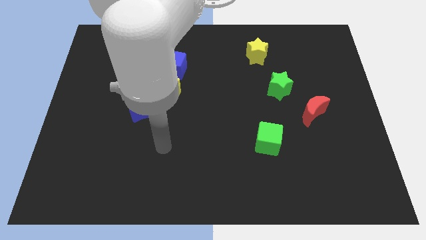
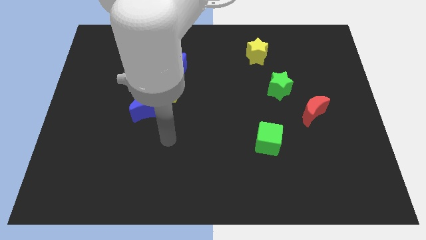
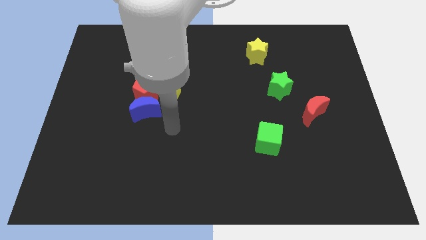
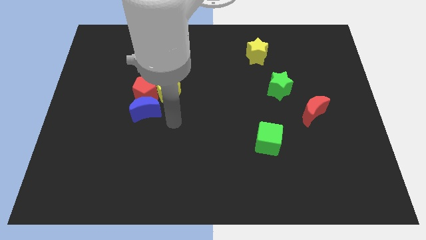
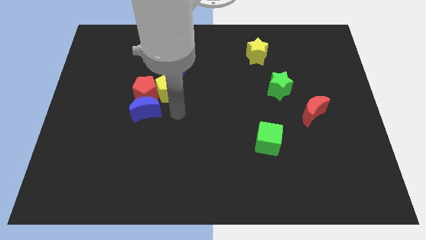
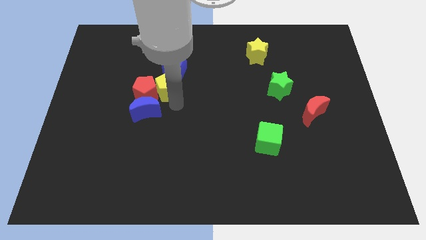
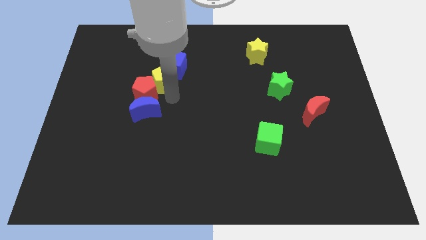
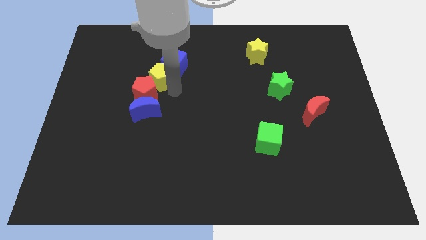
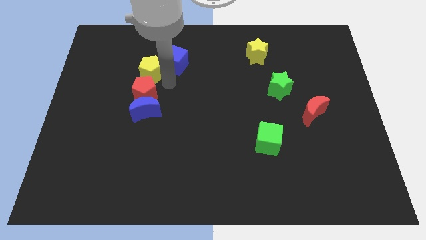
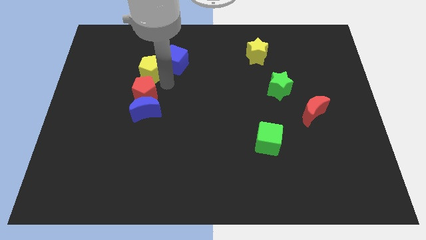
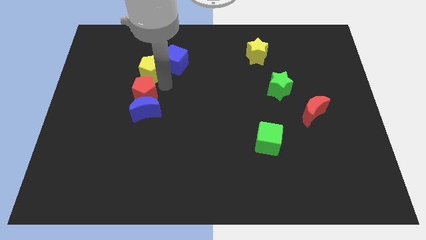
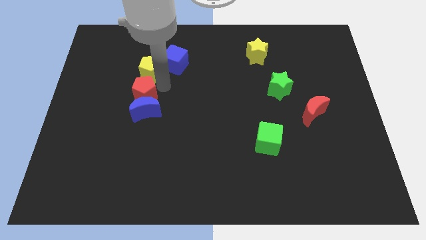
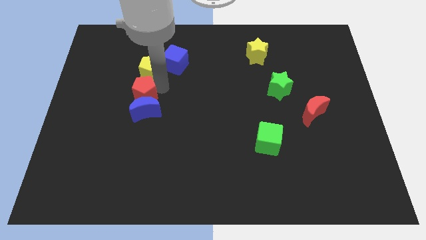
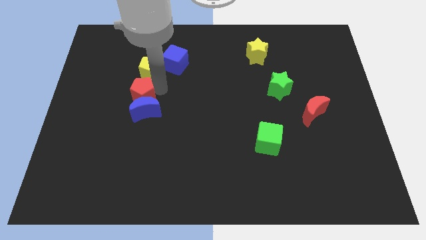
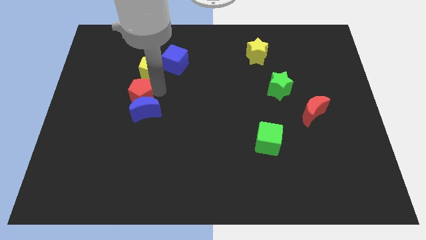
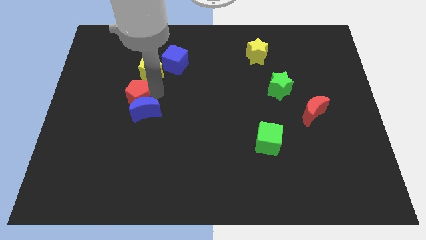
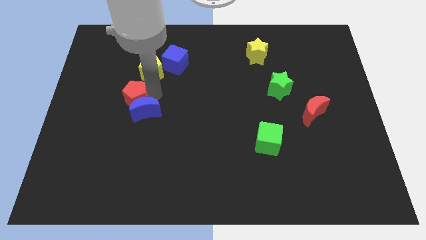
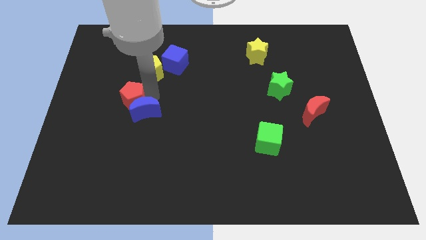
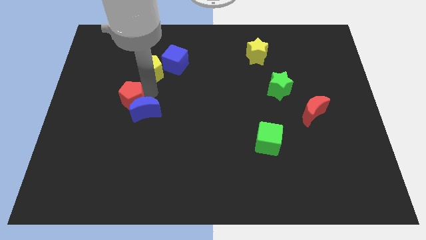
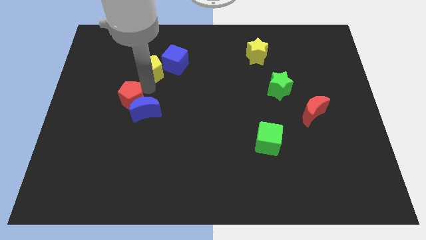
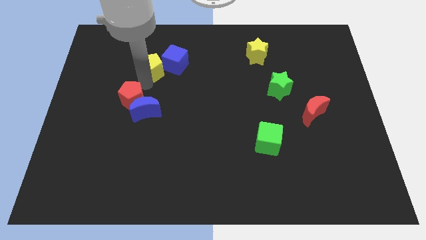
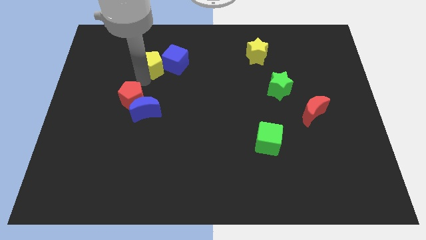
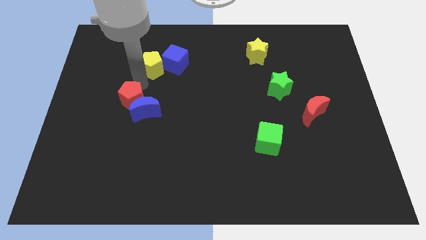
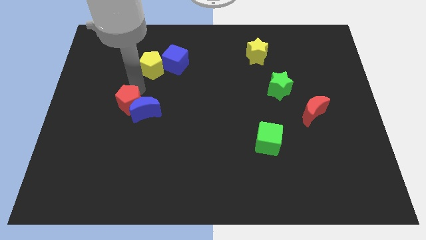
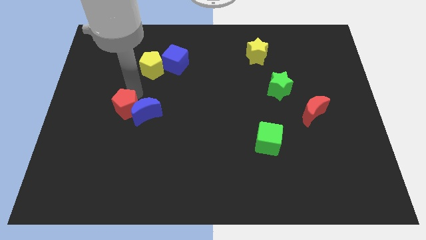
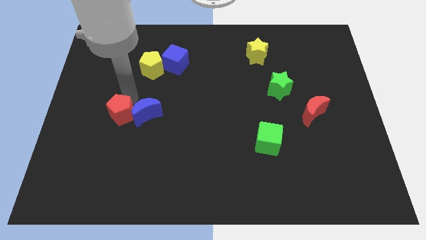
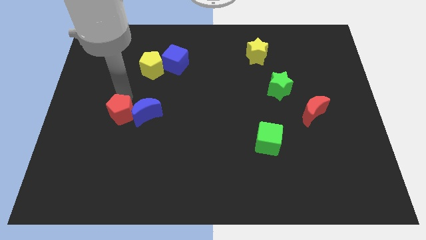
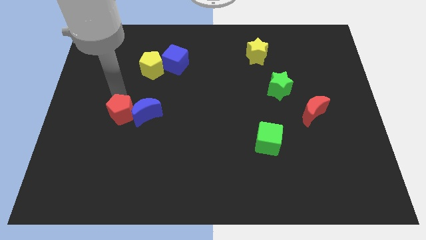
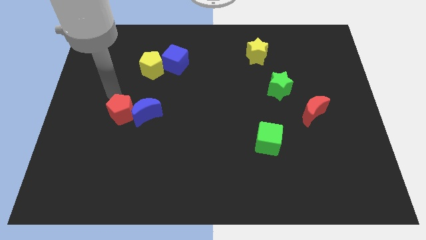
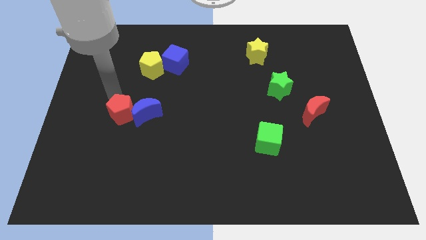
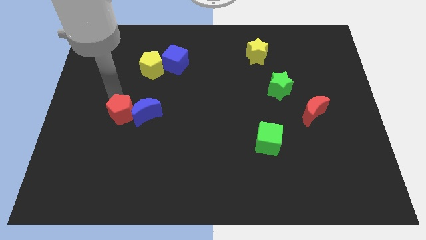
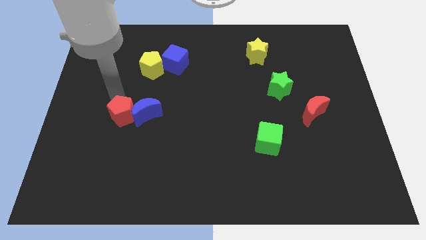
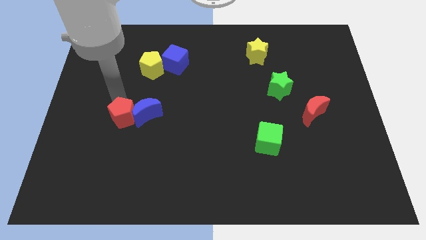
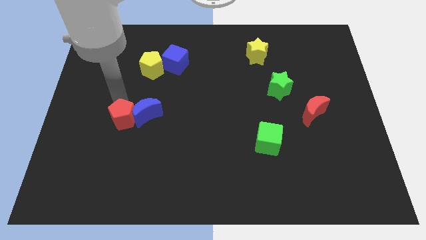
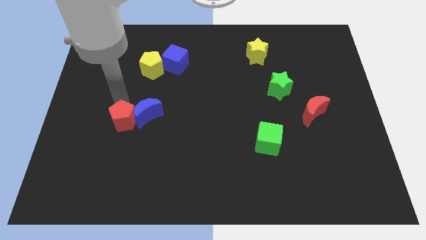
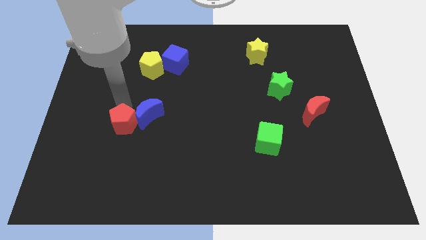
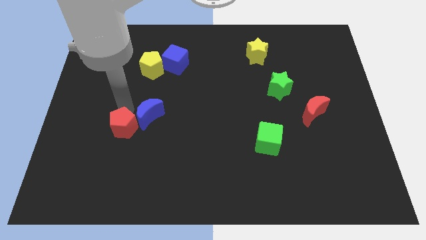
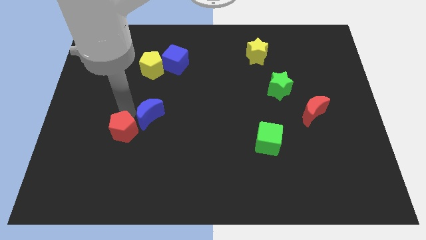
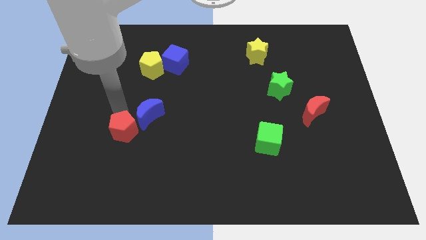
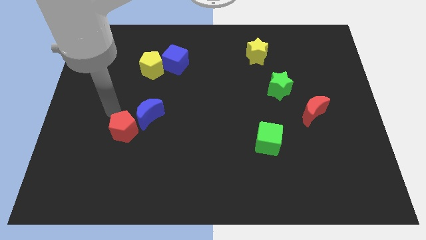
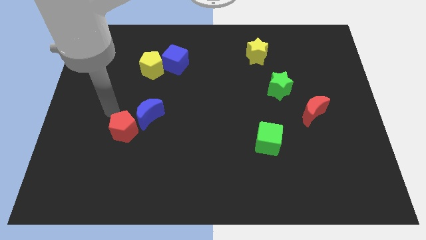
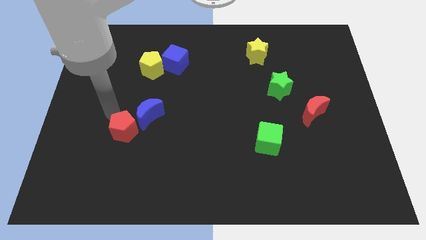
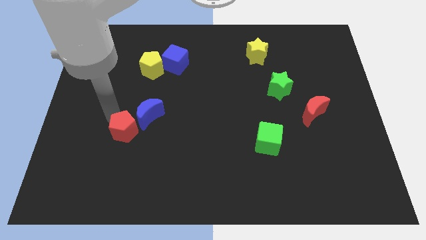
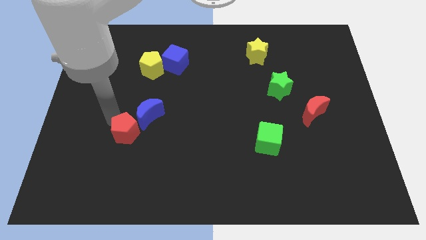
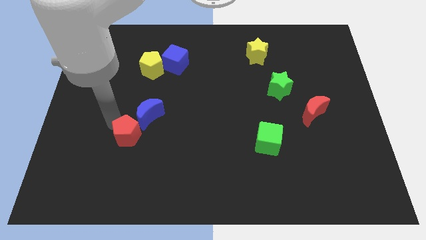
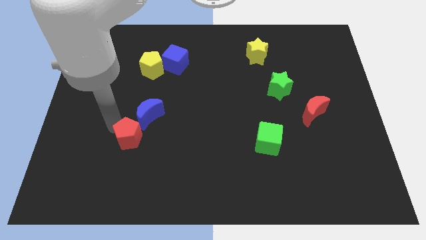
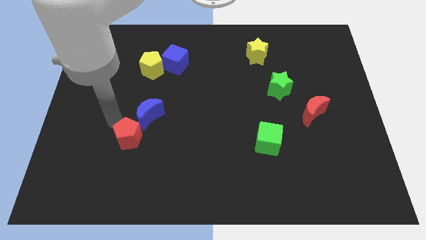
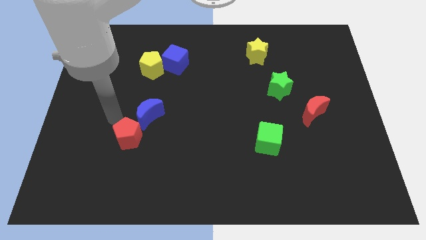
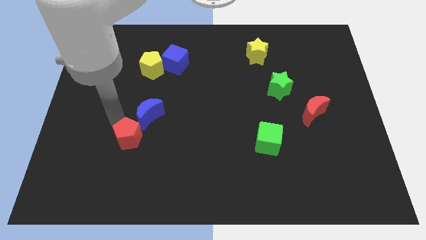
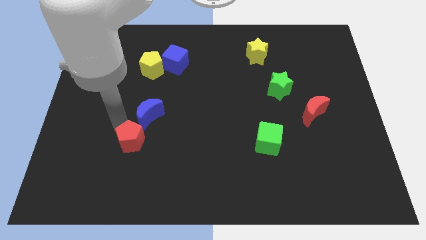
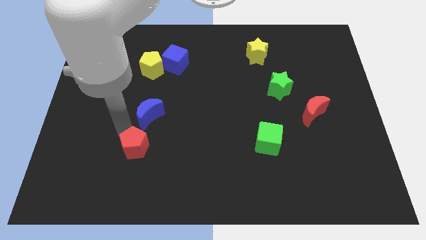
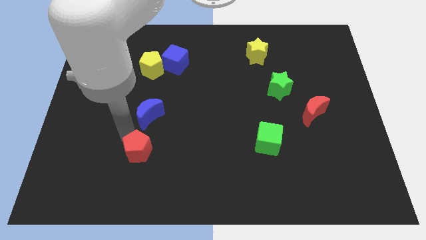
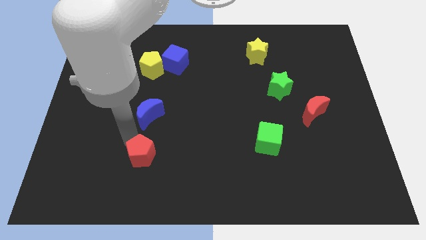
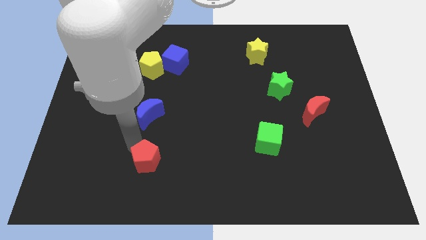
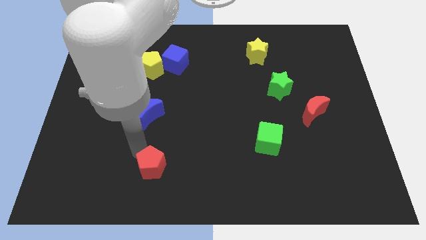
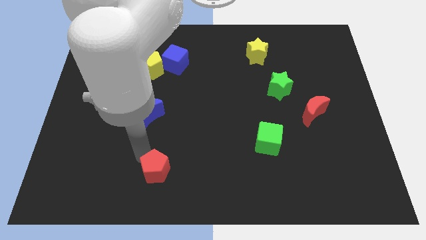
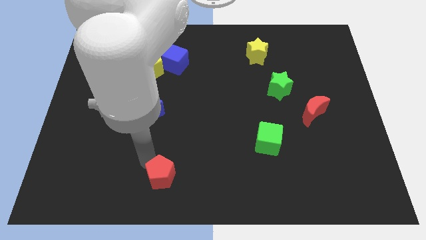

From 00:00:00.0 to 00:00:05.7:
push the red pentagon to the bottom

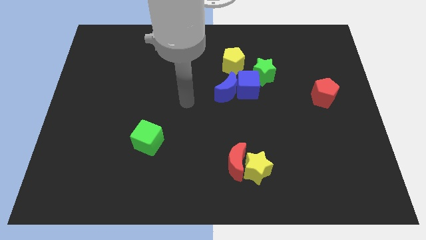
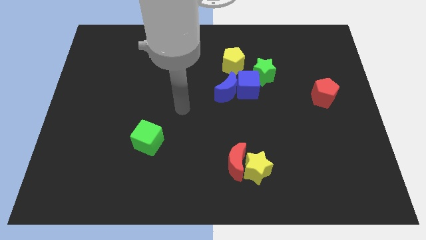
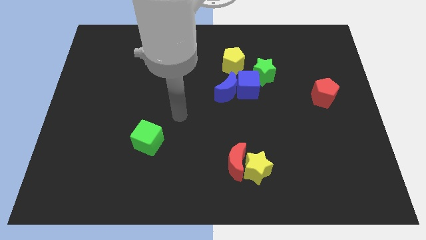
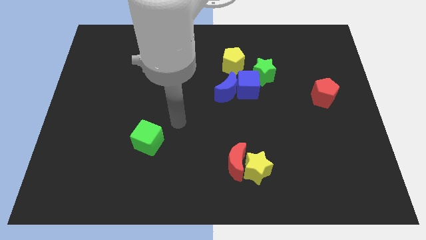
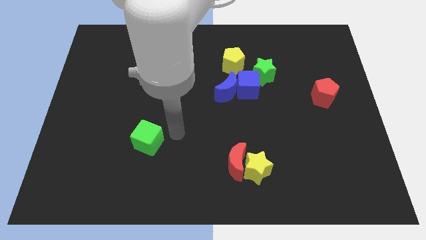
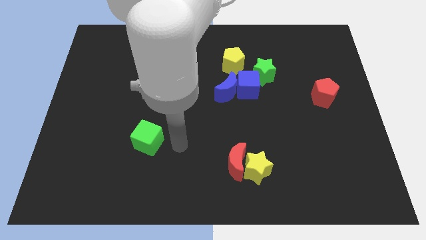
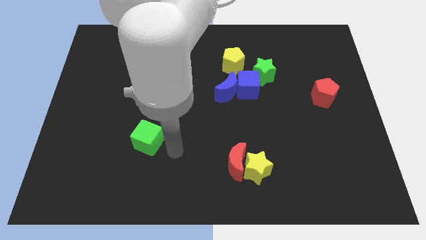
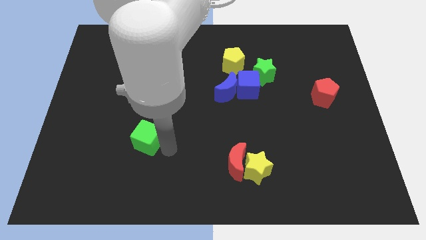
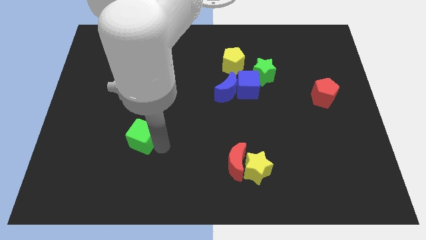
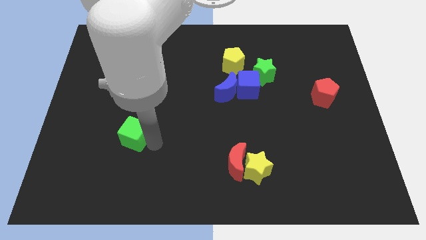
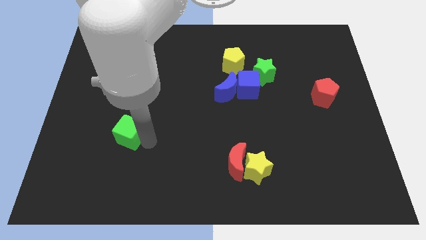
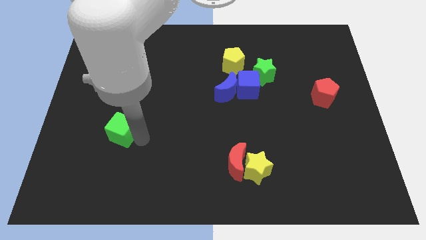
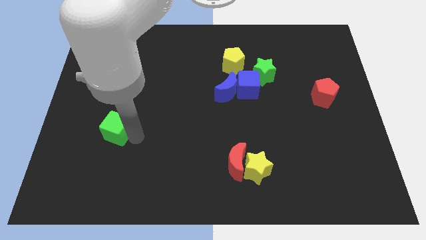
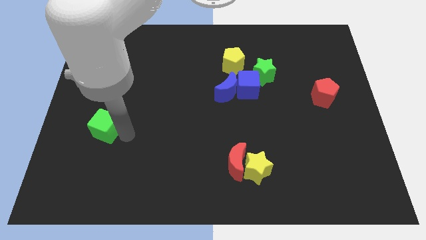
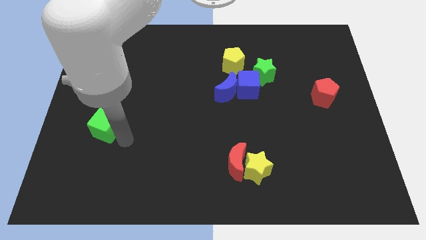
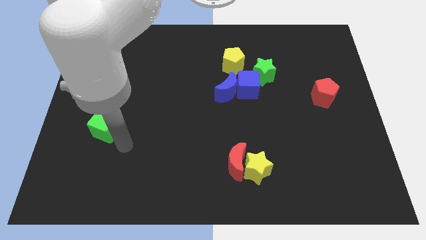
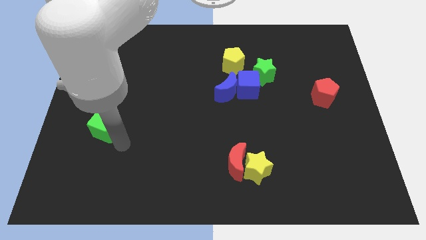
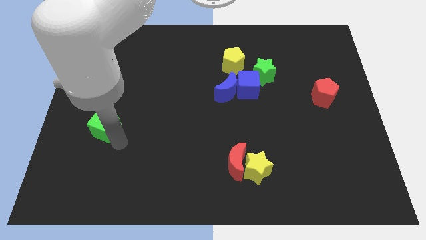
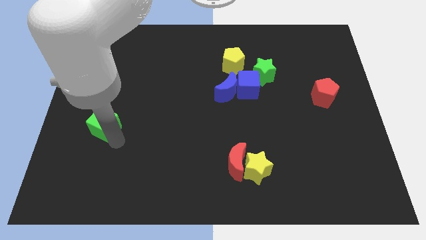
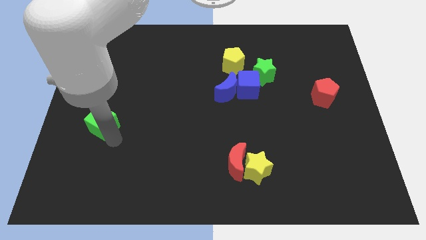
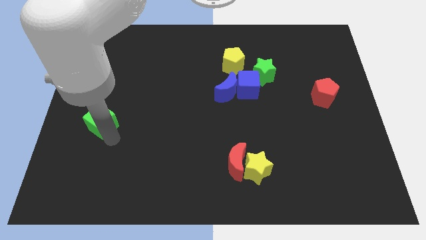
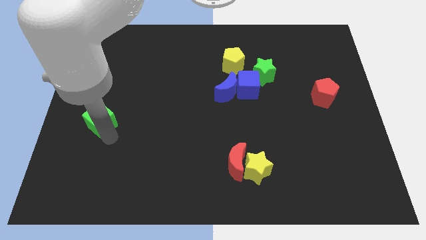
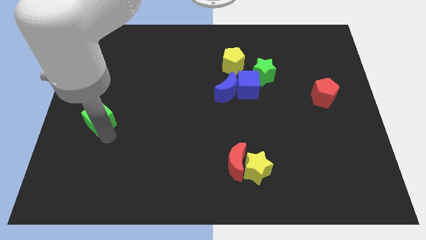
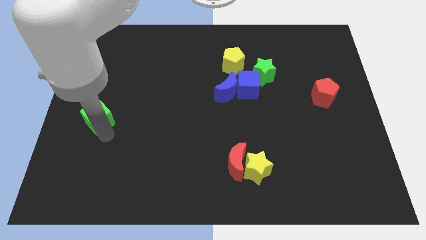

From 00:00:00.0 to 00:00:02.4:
move the green cube to the left side of the board
